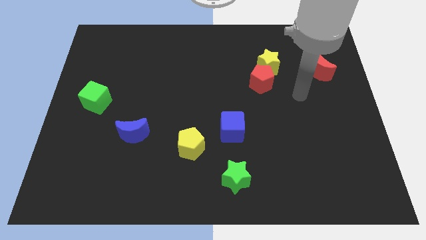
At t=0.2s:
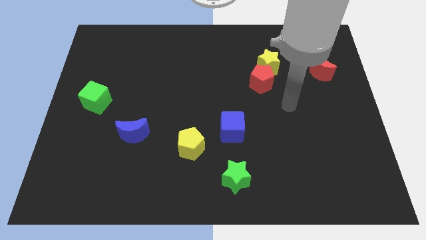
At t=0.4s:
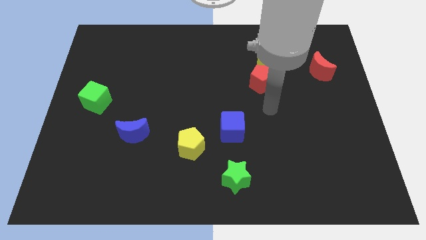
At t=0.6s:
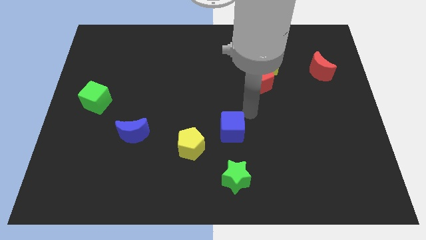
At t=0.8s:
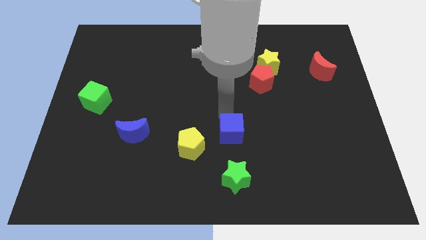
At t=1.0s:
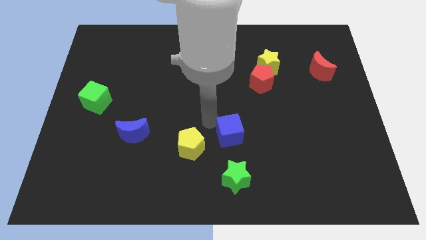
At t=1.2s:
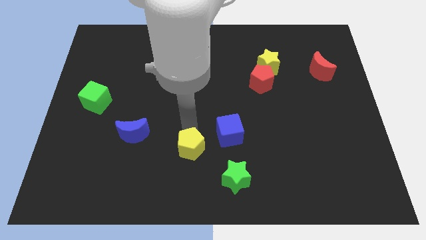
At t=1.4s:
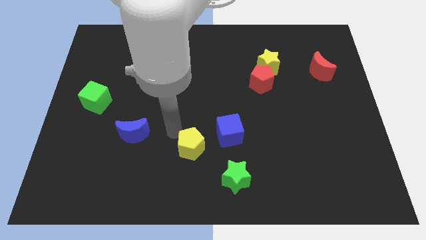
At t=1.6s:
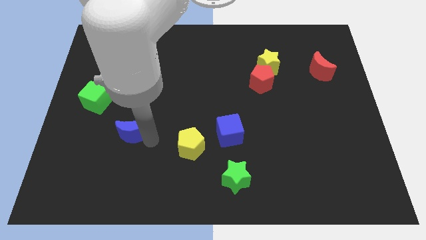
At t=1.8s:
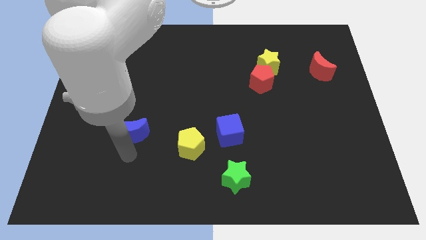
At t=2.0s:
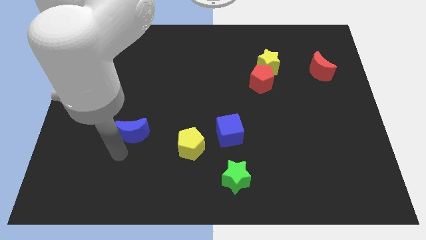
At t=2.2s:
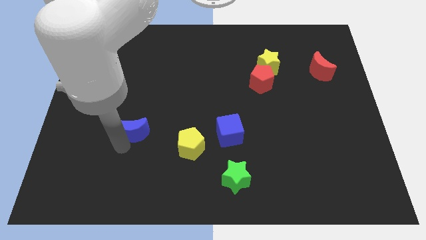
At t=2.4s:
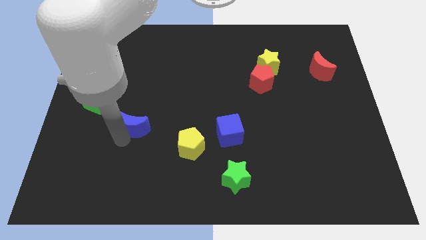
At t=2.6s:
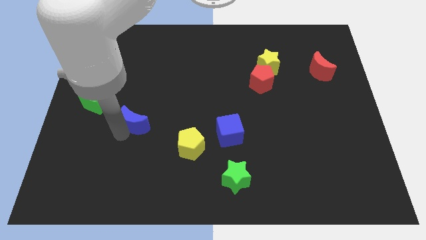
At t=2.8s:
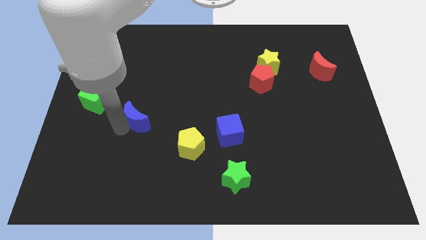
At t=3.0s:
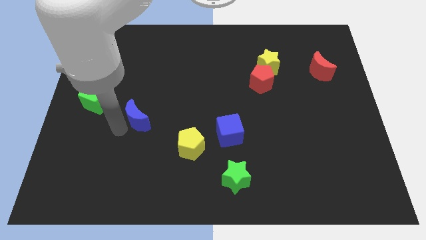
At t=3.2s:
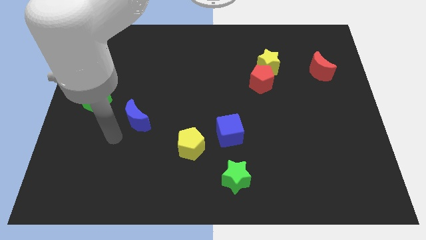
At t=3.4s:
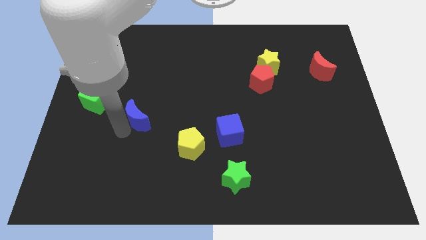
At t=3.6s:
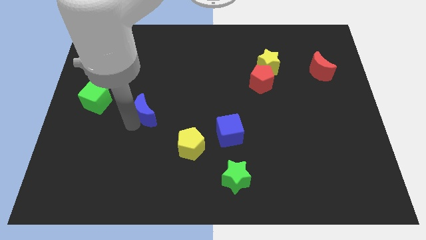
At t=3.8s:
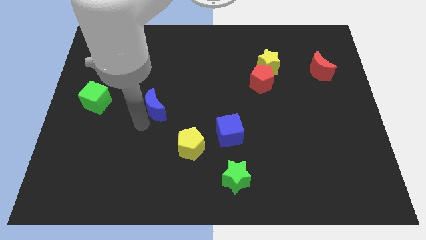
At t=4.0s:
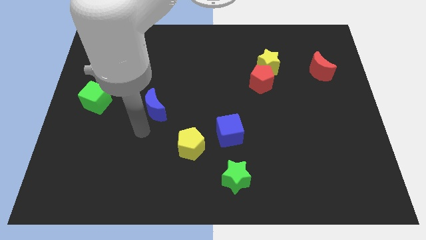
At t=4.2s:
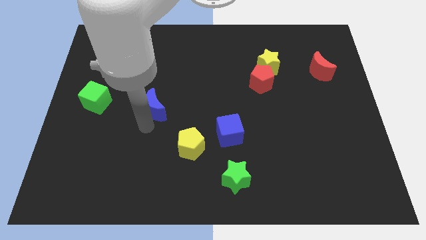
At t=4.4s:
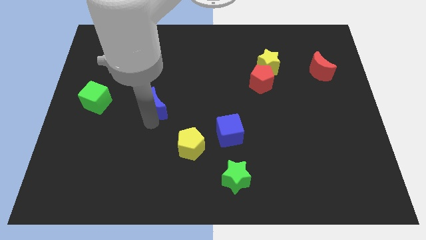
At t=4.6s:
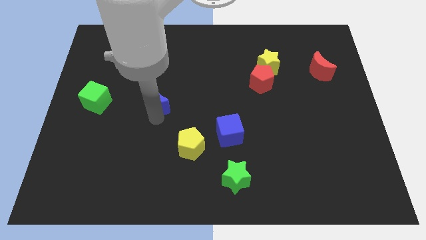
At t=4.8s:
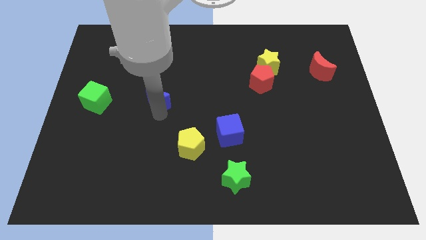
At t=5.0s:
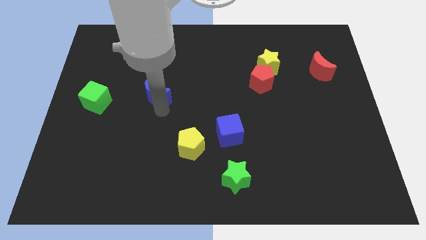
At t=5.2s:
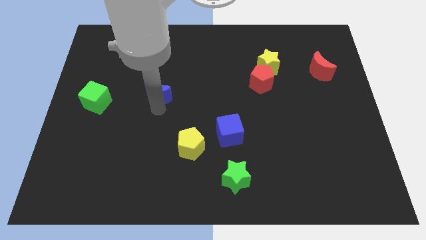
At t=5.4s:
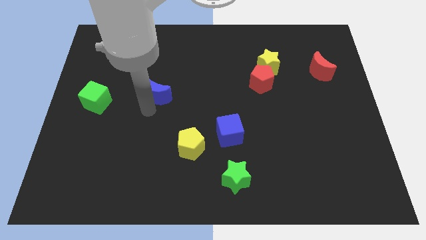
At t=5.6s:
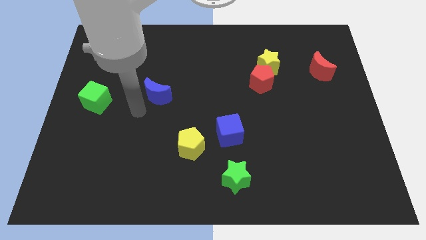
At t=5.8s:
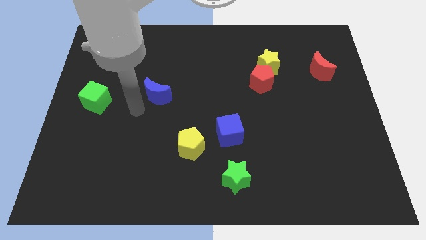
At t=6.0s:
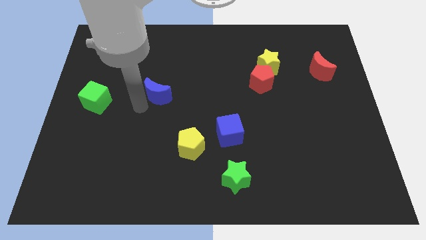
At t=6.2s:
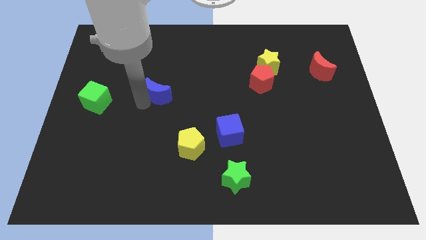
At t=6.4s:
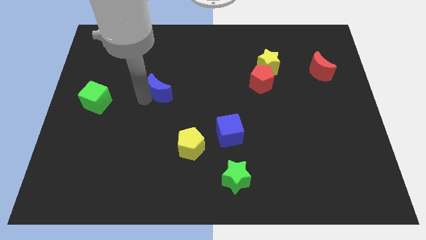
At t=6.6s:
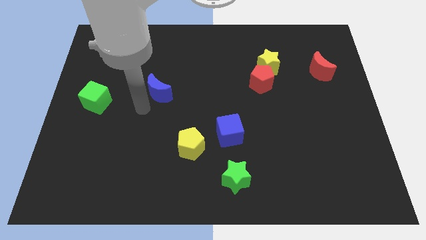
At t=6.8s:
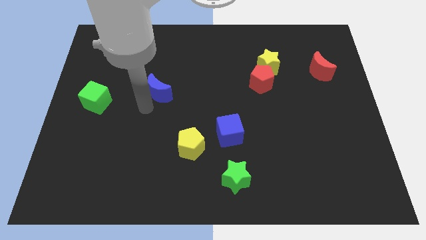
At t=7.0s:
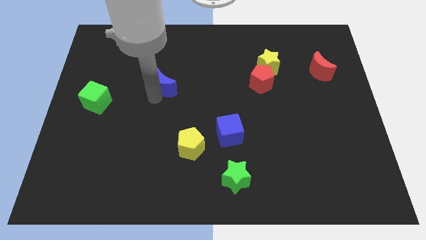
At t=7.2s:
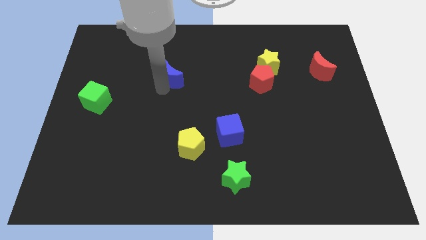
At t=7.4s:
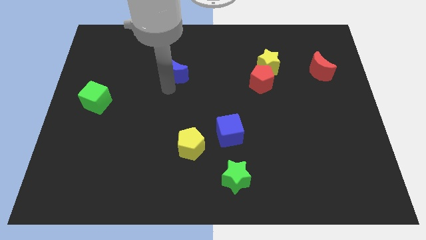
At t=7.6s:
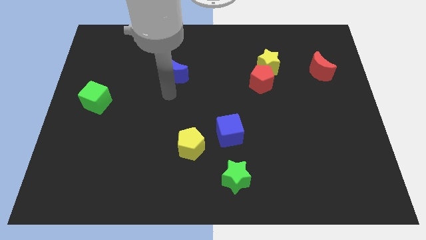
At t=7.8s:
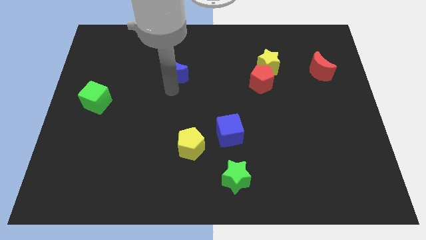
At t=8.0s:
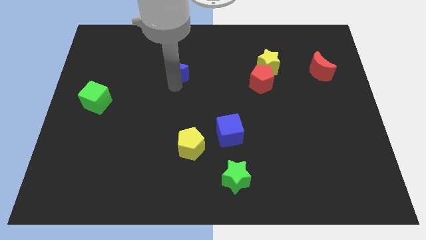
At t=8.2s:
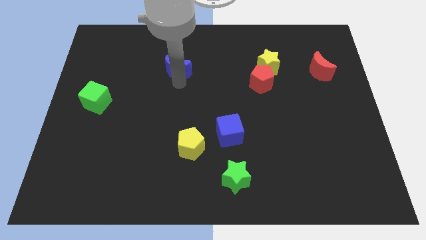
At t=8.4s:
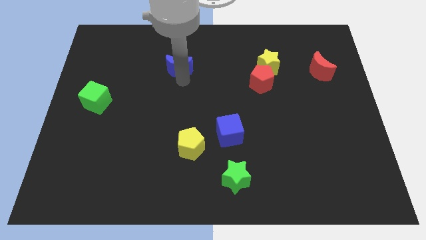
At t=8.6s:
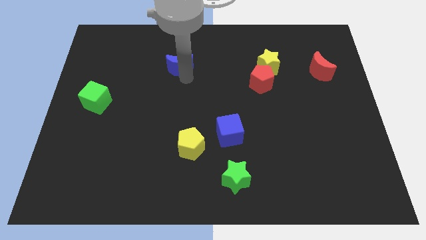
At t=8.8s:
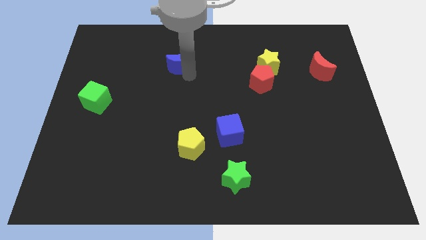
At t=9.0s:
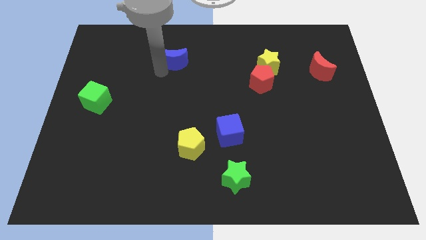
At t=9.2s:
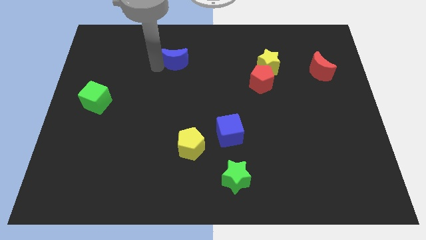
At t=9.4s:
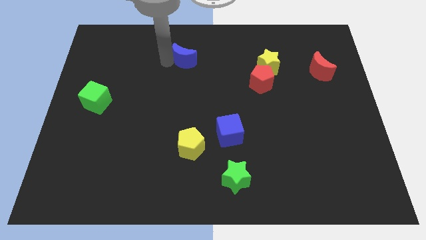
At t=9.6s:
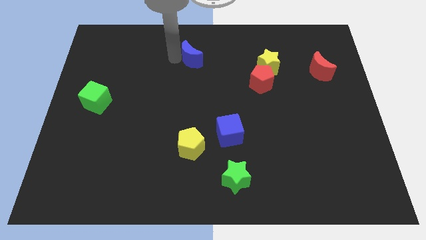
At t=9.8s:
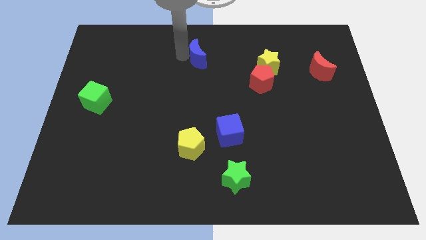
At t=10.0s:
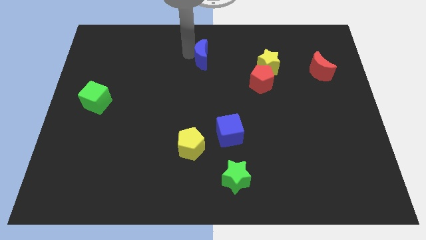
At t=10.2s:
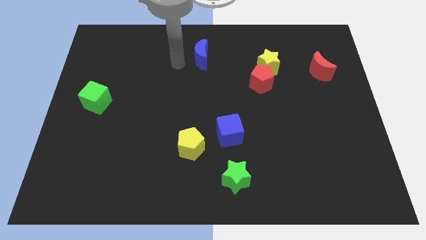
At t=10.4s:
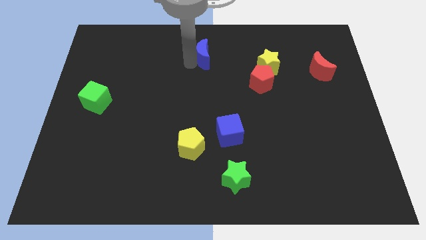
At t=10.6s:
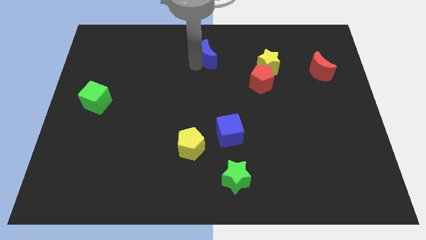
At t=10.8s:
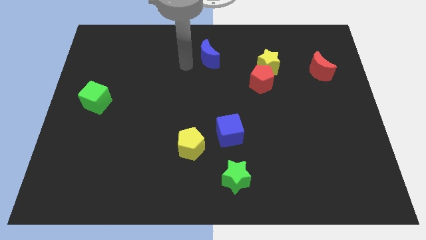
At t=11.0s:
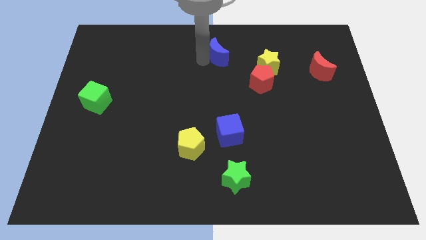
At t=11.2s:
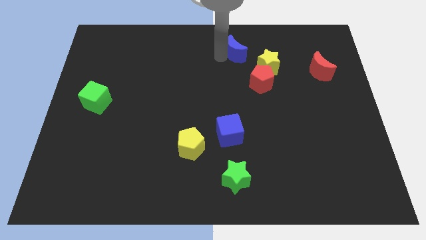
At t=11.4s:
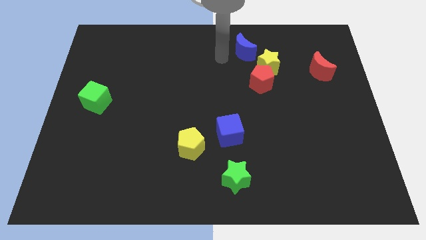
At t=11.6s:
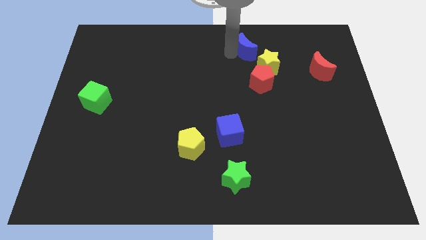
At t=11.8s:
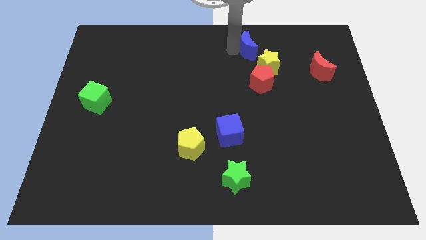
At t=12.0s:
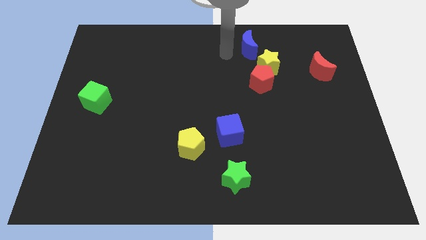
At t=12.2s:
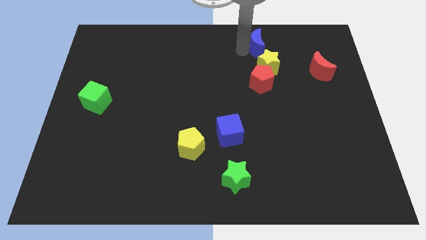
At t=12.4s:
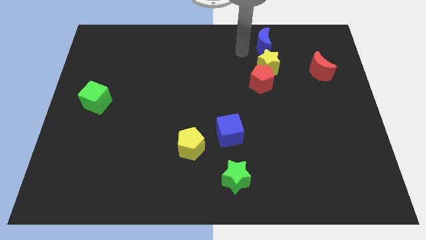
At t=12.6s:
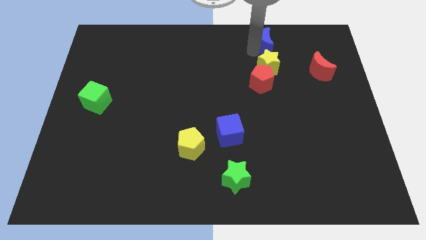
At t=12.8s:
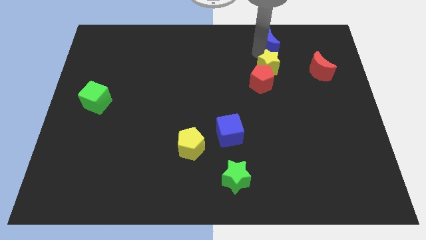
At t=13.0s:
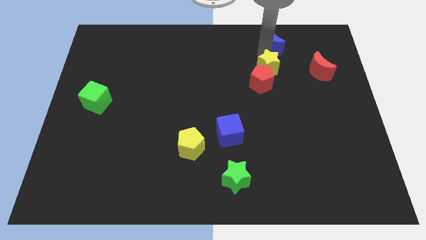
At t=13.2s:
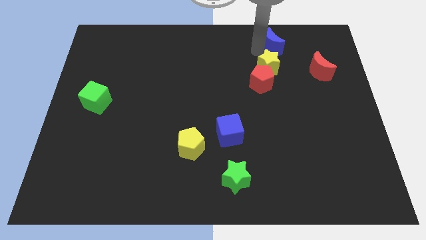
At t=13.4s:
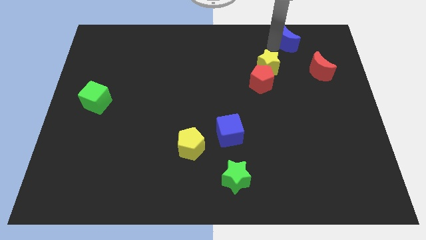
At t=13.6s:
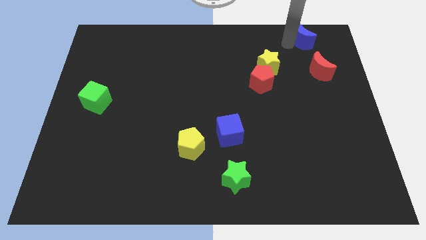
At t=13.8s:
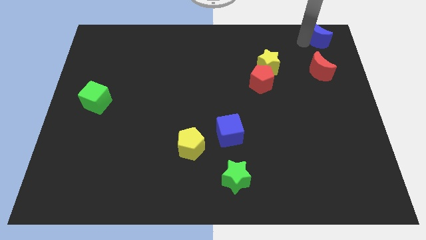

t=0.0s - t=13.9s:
slide the blue moon to the top right of the board

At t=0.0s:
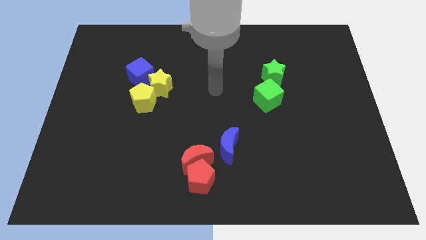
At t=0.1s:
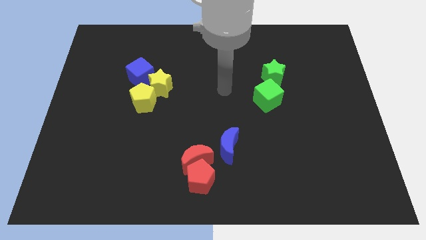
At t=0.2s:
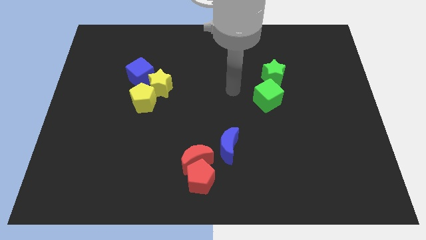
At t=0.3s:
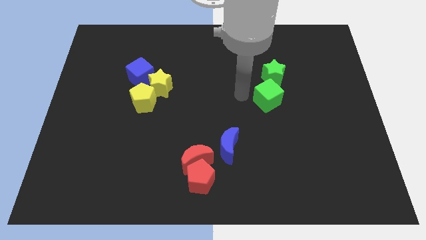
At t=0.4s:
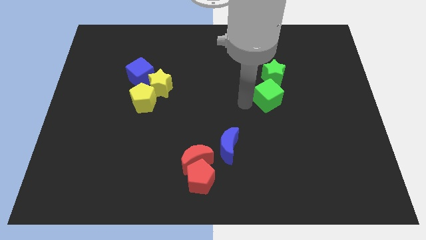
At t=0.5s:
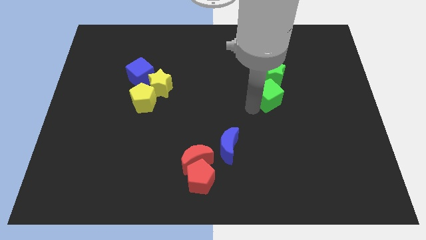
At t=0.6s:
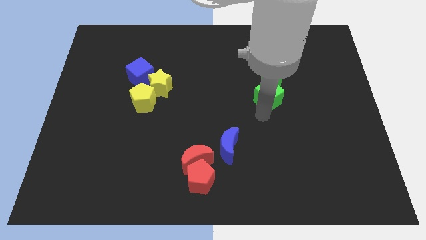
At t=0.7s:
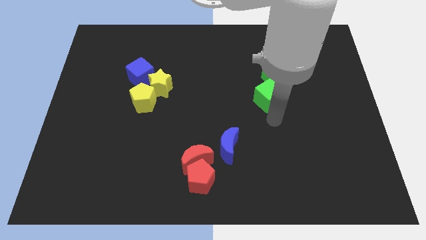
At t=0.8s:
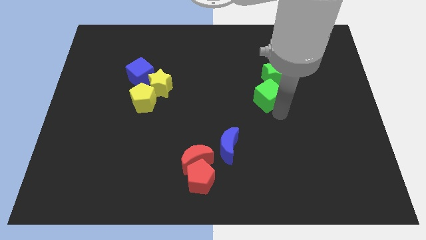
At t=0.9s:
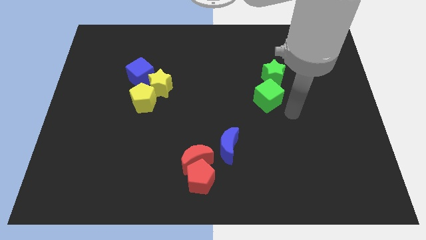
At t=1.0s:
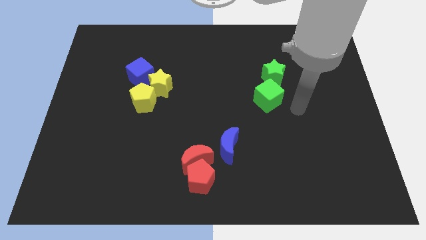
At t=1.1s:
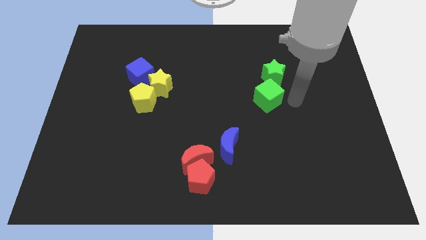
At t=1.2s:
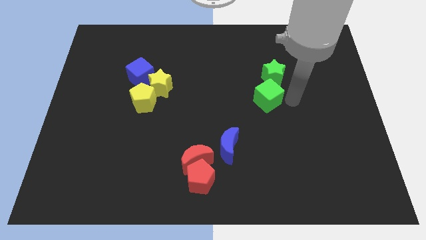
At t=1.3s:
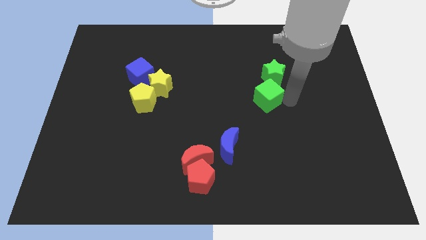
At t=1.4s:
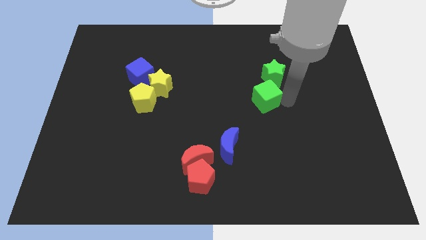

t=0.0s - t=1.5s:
slide the green cube to the middle of the board
